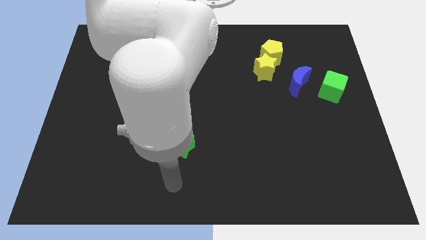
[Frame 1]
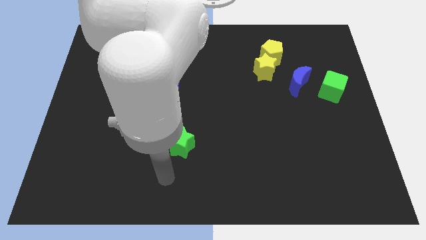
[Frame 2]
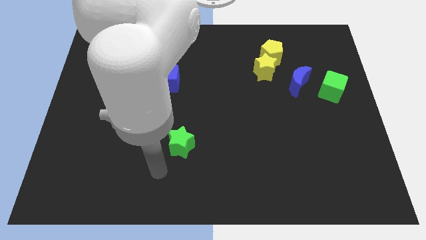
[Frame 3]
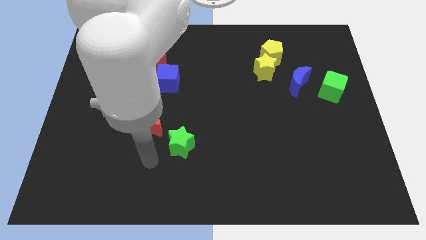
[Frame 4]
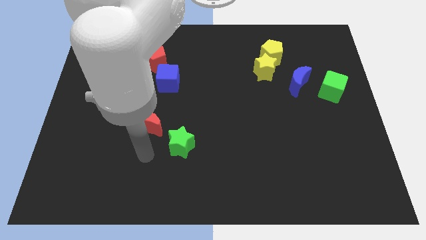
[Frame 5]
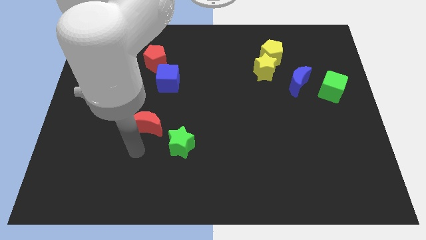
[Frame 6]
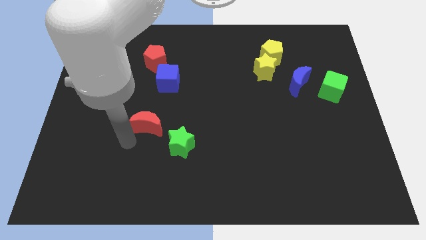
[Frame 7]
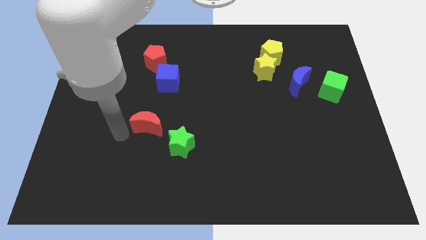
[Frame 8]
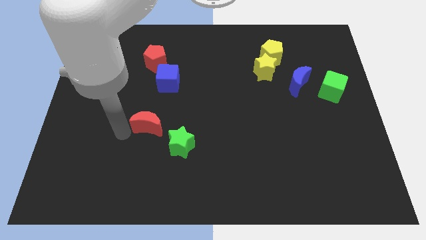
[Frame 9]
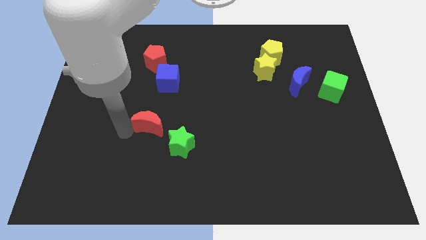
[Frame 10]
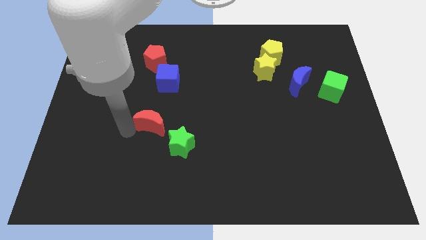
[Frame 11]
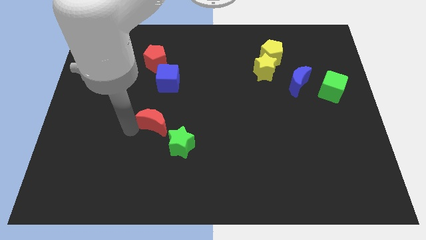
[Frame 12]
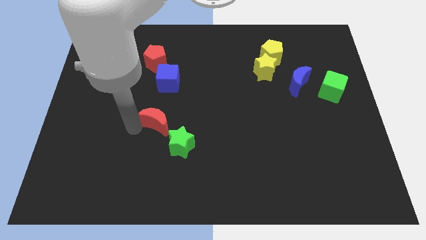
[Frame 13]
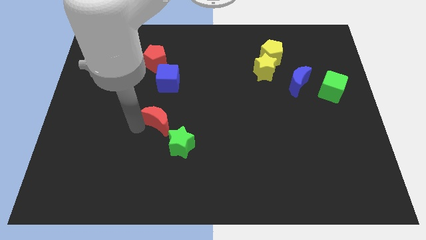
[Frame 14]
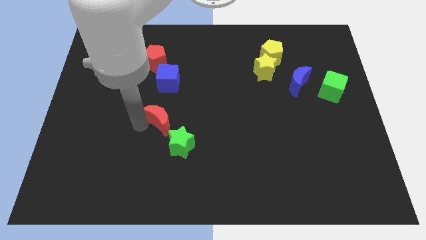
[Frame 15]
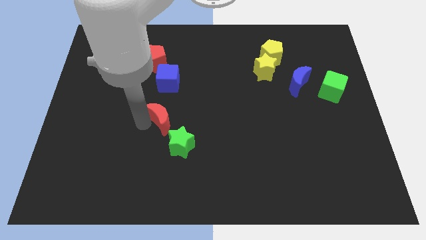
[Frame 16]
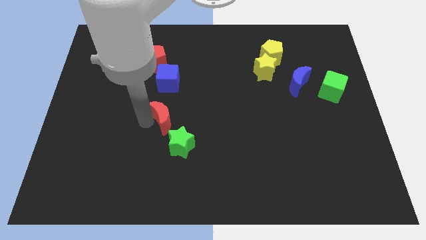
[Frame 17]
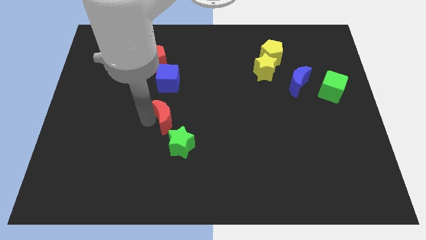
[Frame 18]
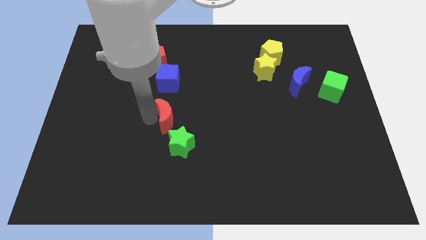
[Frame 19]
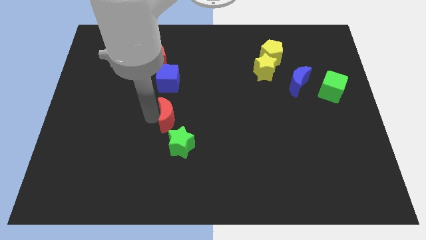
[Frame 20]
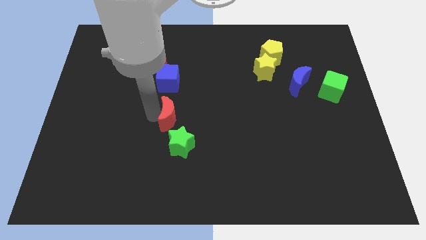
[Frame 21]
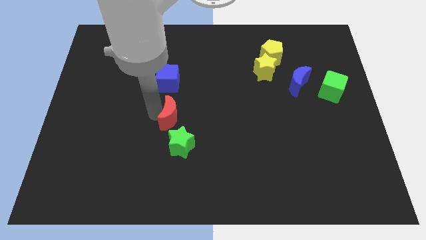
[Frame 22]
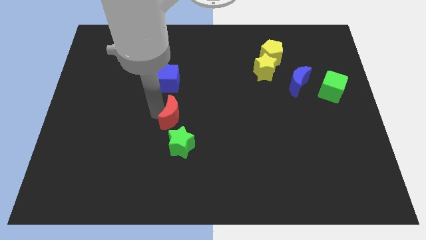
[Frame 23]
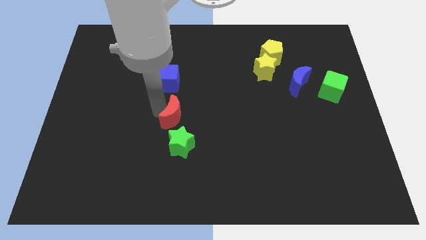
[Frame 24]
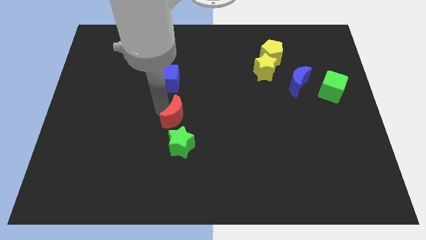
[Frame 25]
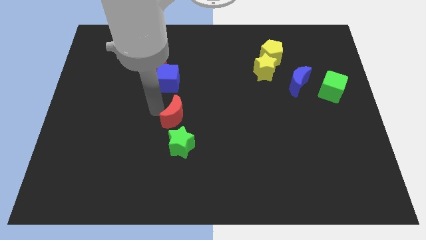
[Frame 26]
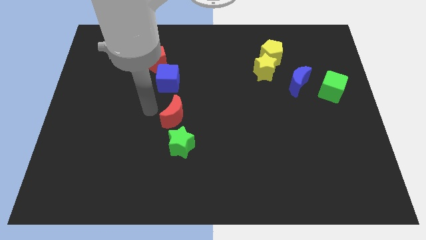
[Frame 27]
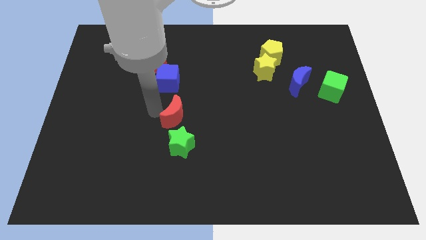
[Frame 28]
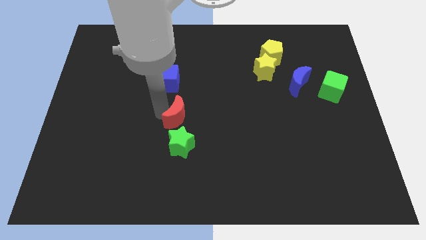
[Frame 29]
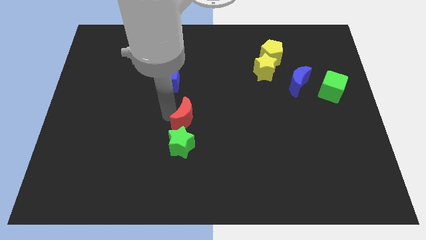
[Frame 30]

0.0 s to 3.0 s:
slide the red moon to the right somewhat

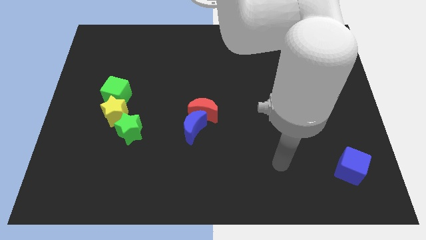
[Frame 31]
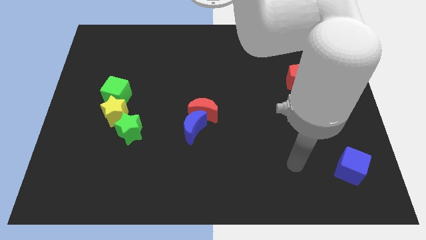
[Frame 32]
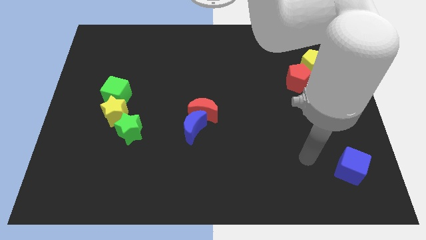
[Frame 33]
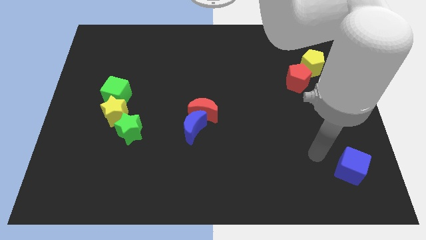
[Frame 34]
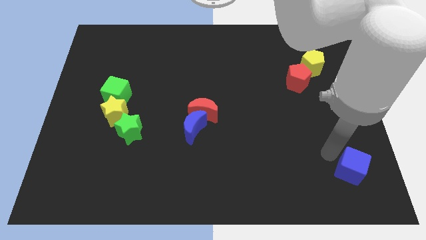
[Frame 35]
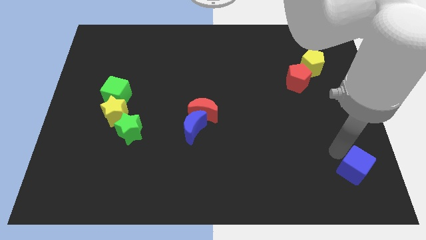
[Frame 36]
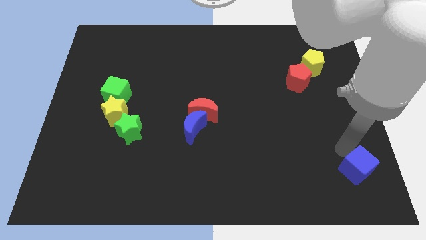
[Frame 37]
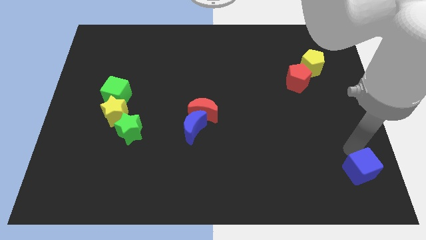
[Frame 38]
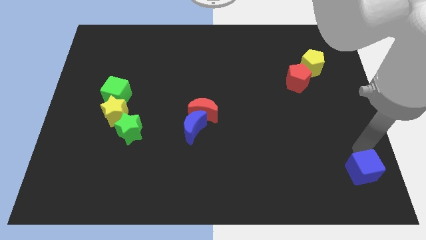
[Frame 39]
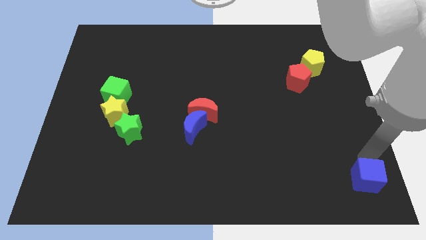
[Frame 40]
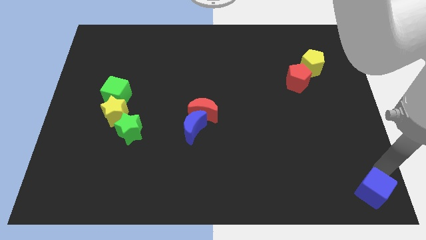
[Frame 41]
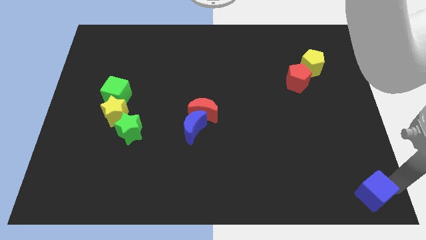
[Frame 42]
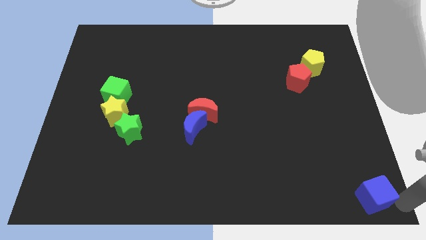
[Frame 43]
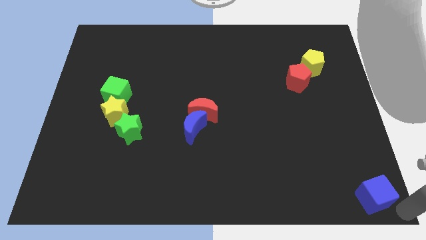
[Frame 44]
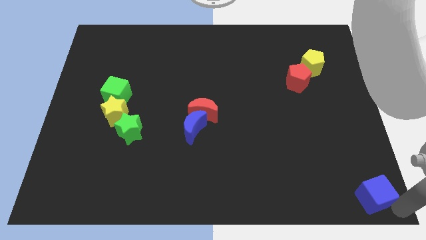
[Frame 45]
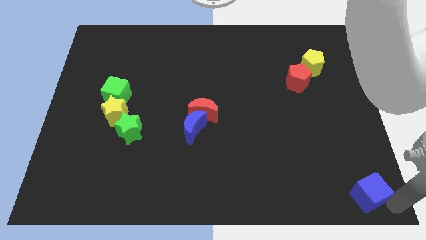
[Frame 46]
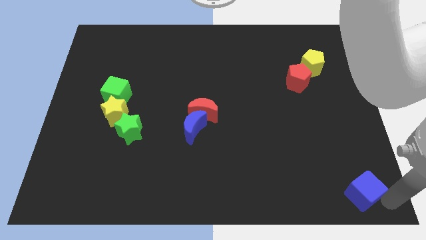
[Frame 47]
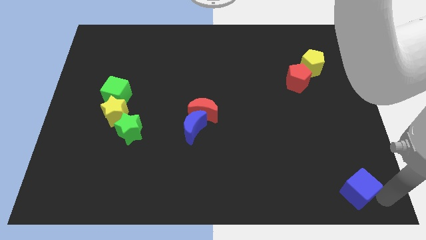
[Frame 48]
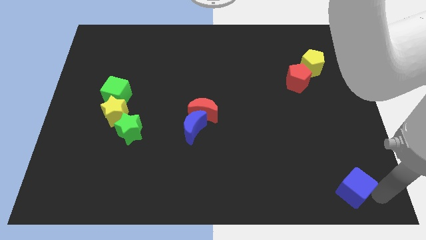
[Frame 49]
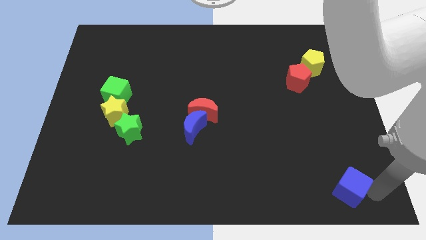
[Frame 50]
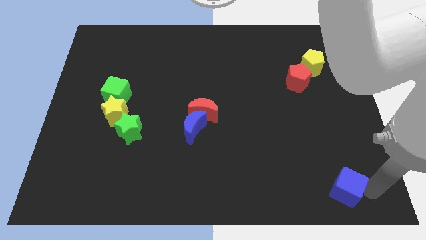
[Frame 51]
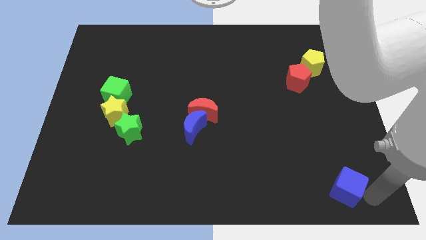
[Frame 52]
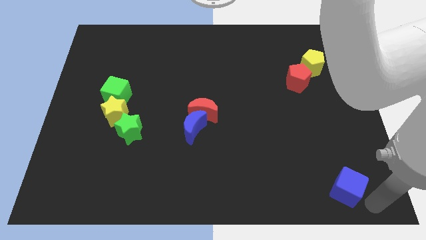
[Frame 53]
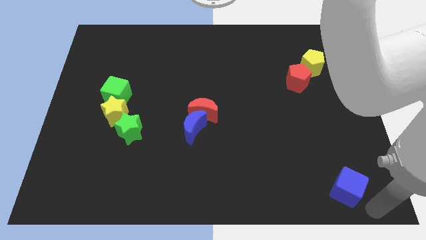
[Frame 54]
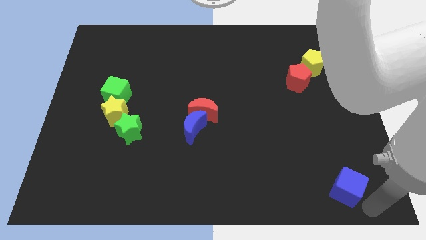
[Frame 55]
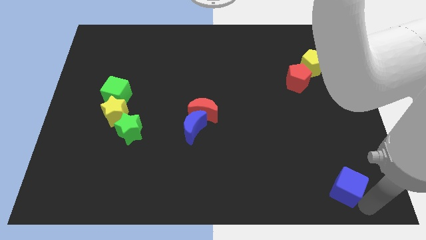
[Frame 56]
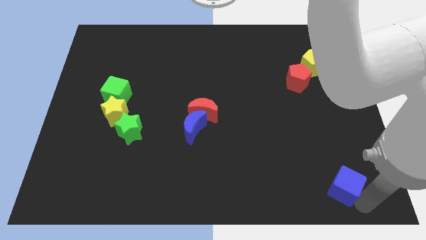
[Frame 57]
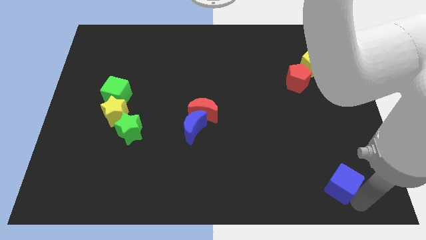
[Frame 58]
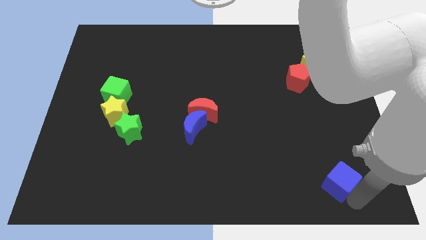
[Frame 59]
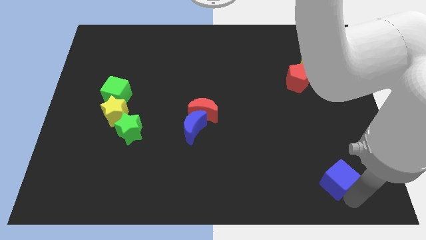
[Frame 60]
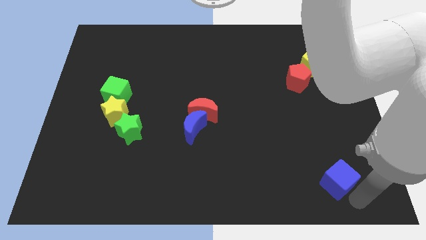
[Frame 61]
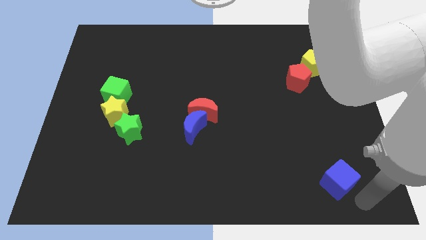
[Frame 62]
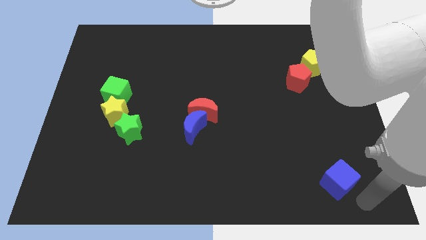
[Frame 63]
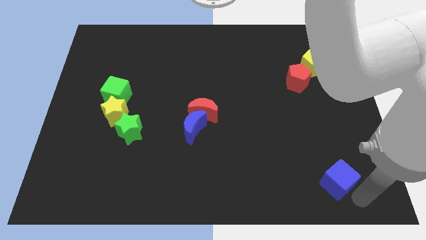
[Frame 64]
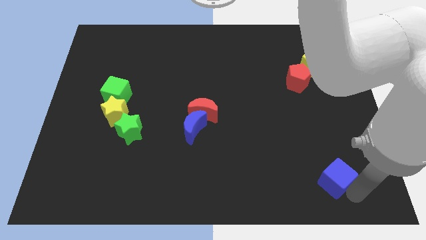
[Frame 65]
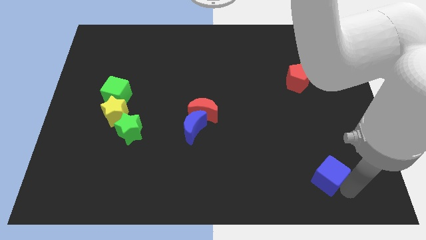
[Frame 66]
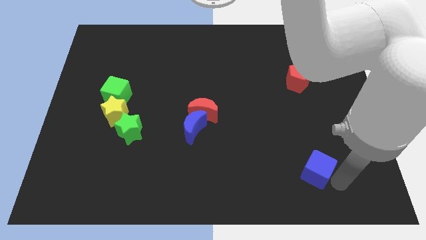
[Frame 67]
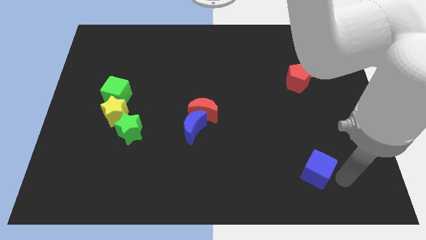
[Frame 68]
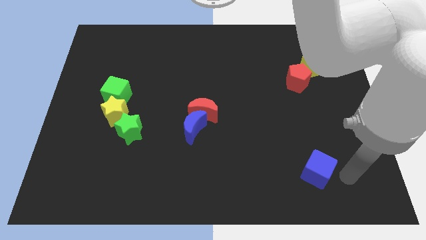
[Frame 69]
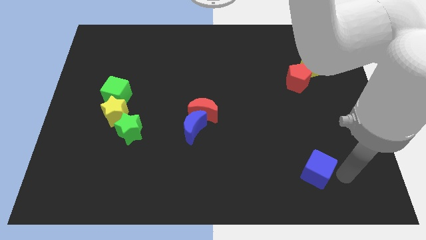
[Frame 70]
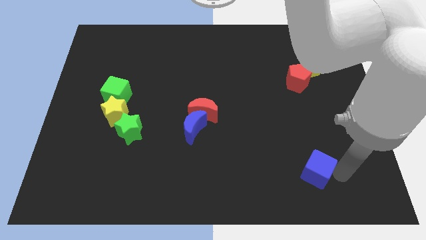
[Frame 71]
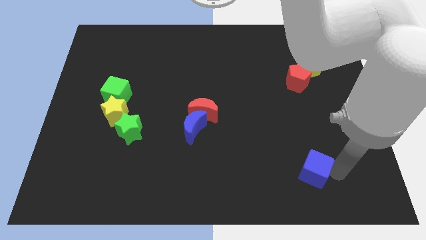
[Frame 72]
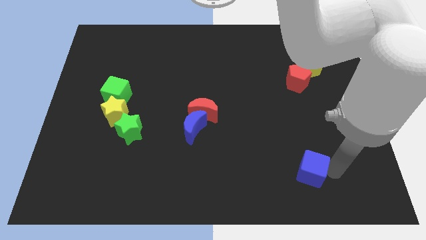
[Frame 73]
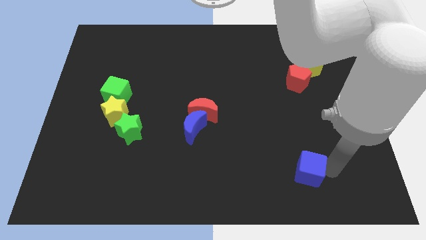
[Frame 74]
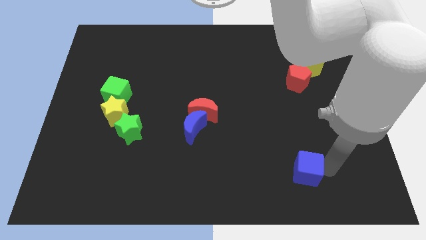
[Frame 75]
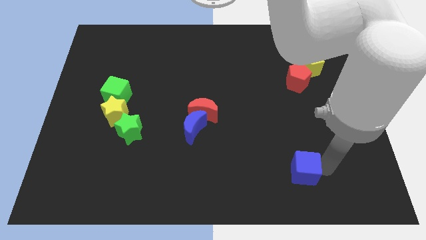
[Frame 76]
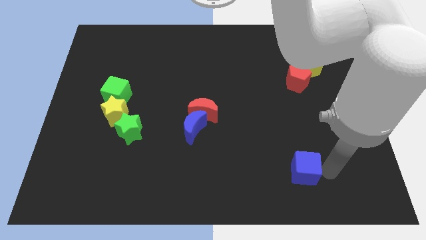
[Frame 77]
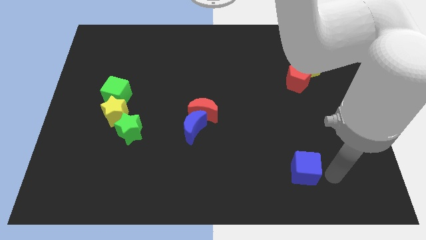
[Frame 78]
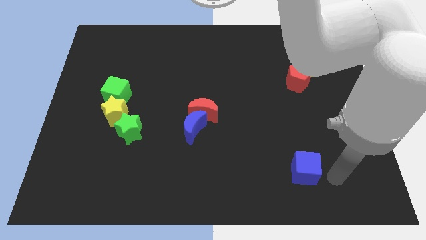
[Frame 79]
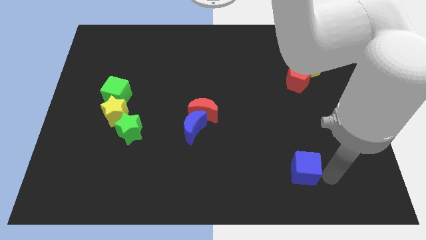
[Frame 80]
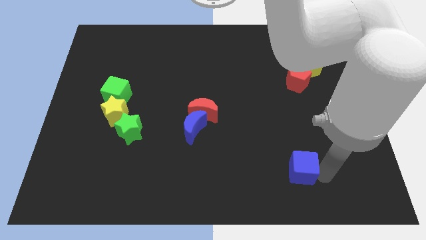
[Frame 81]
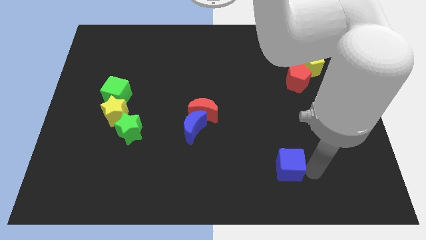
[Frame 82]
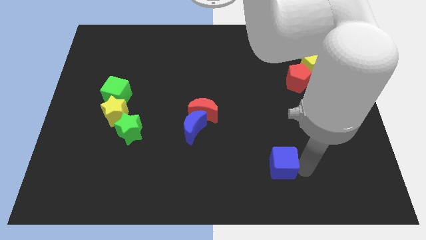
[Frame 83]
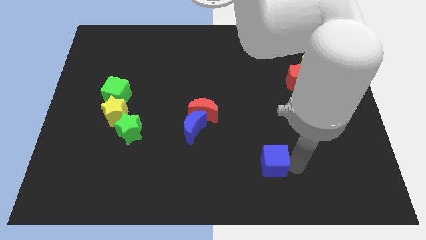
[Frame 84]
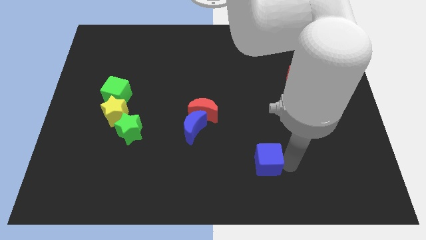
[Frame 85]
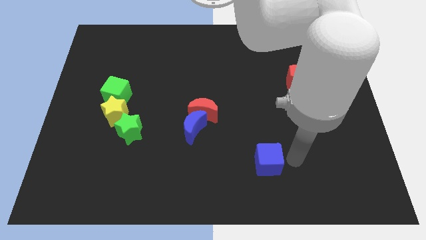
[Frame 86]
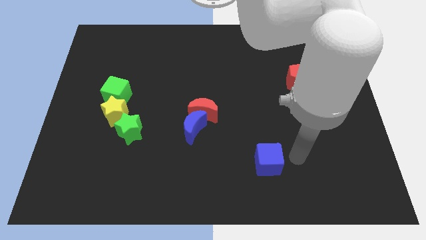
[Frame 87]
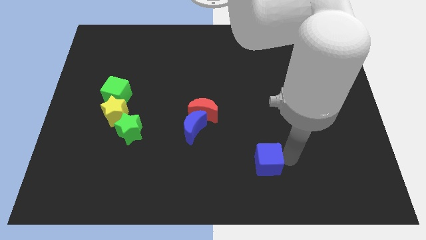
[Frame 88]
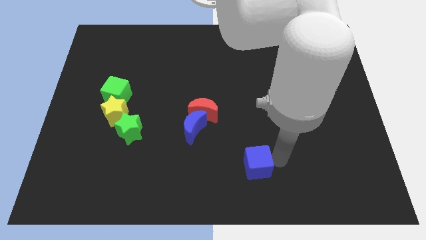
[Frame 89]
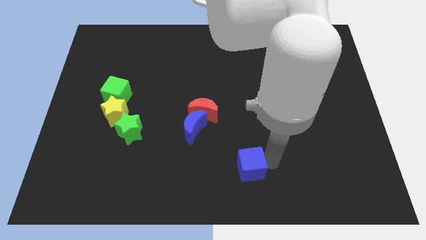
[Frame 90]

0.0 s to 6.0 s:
push the blue cube left
